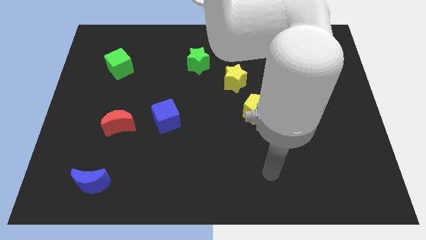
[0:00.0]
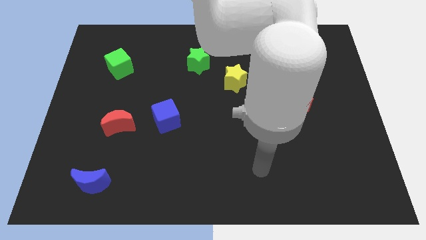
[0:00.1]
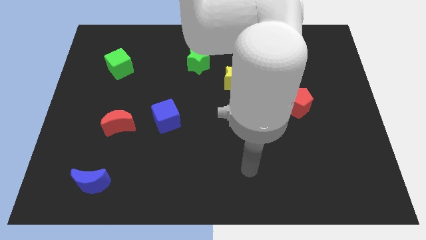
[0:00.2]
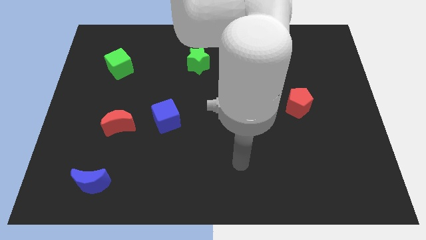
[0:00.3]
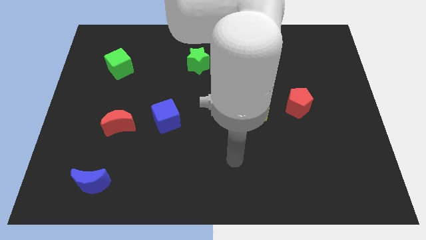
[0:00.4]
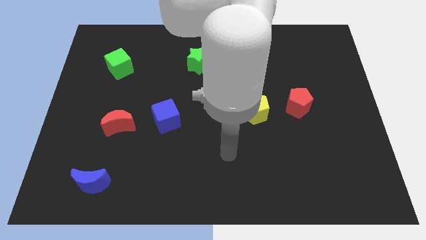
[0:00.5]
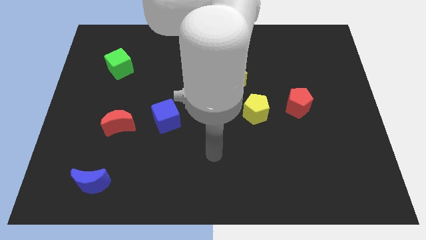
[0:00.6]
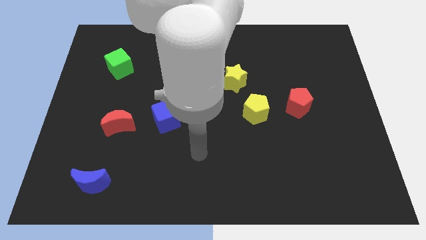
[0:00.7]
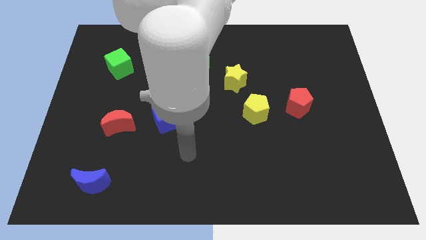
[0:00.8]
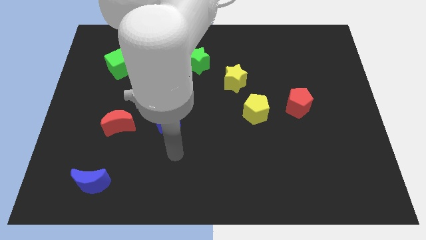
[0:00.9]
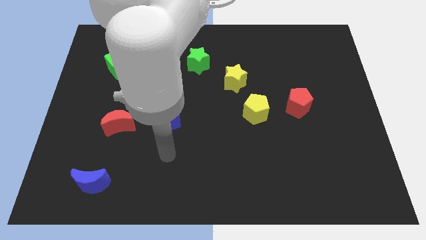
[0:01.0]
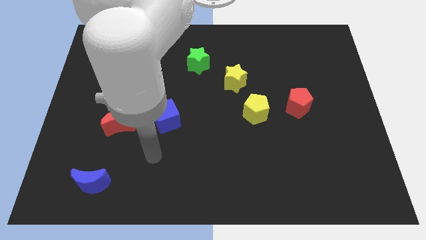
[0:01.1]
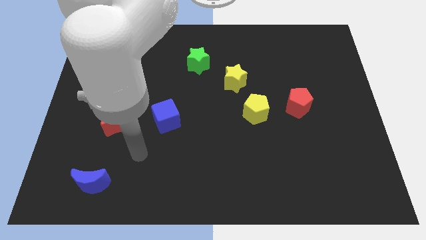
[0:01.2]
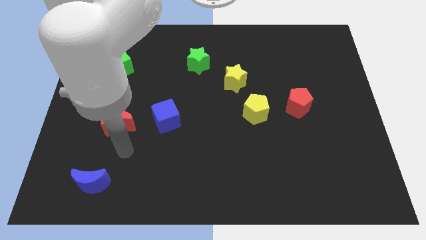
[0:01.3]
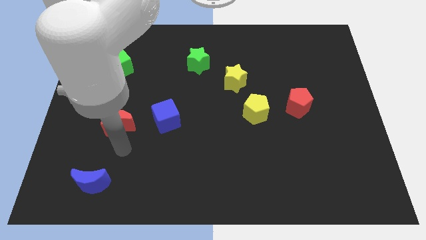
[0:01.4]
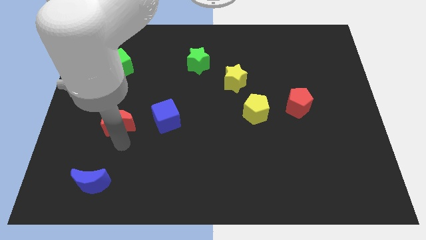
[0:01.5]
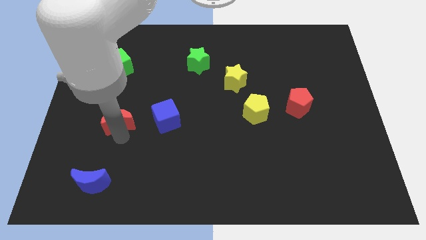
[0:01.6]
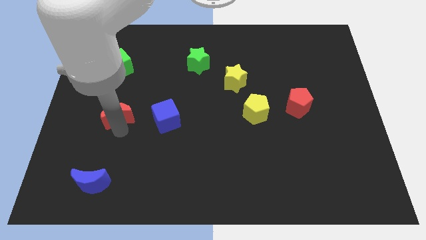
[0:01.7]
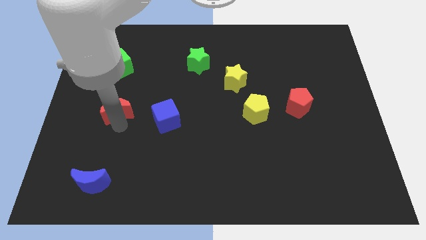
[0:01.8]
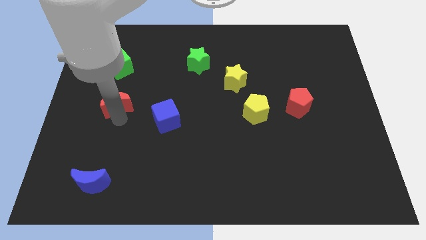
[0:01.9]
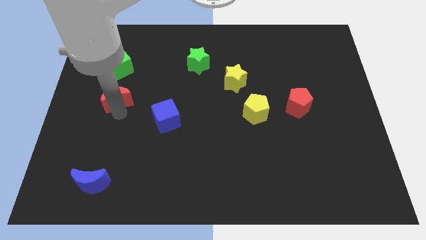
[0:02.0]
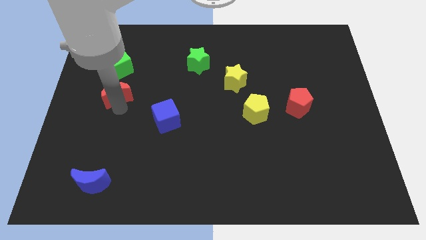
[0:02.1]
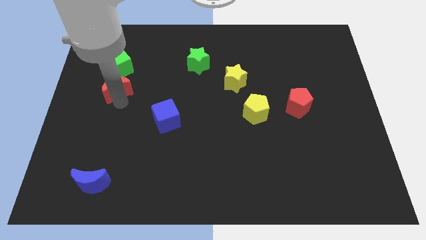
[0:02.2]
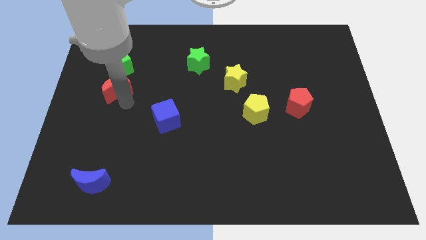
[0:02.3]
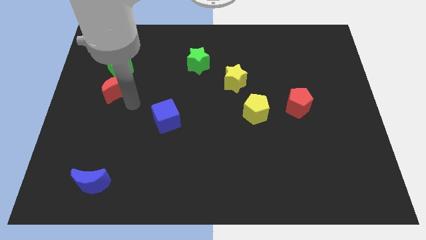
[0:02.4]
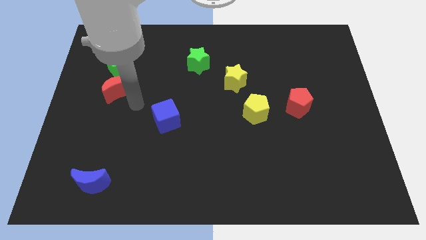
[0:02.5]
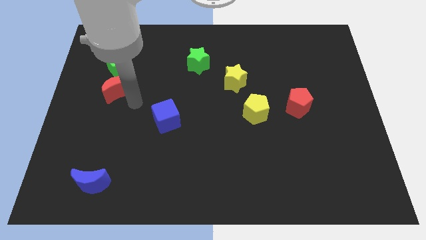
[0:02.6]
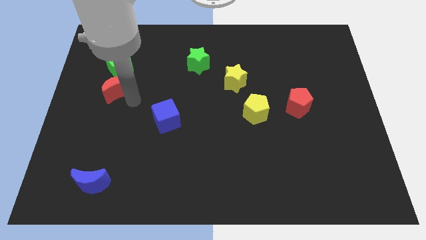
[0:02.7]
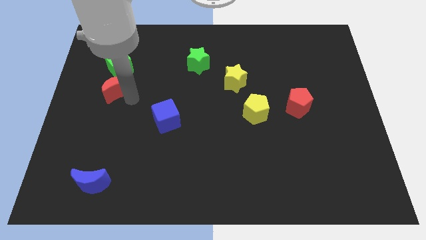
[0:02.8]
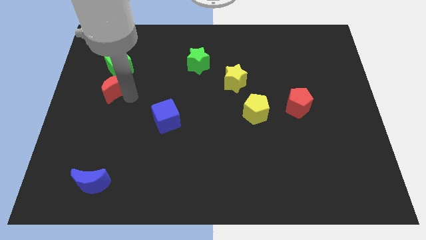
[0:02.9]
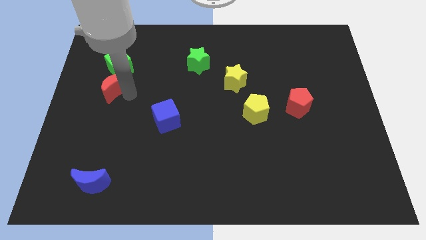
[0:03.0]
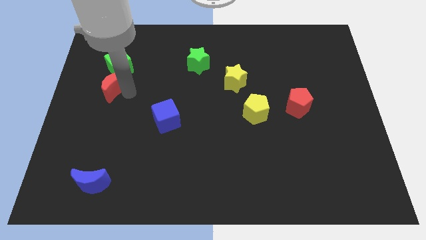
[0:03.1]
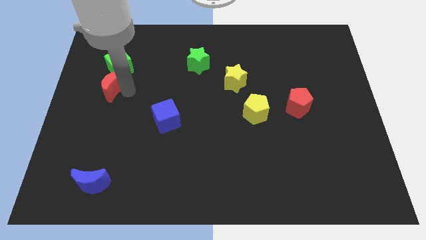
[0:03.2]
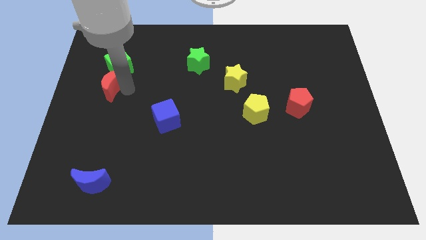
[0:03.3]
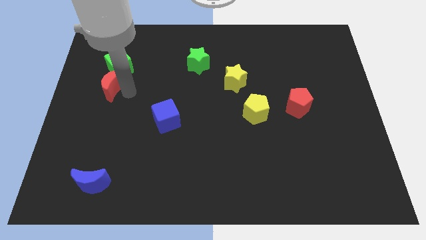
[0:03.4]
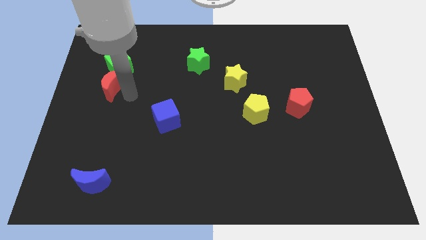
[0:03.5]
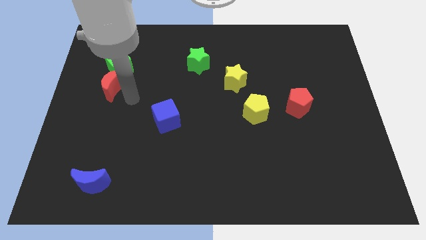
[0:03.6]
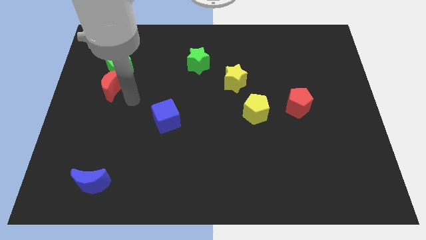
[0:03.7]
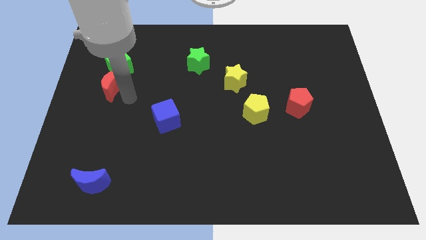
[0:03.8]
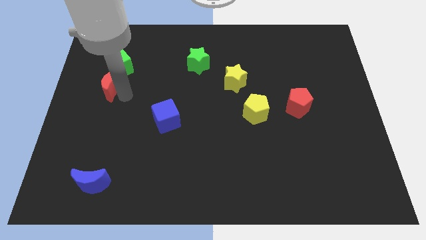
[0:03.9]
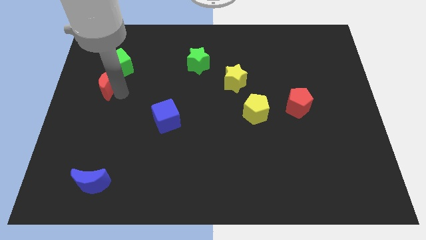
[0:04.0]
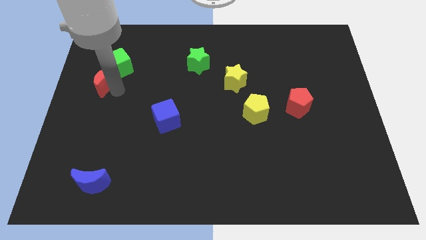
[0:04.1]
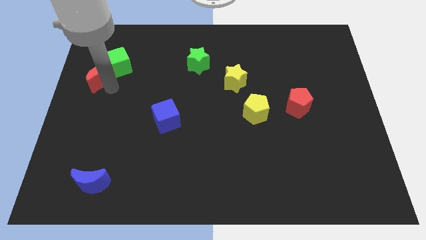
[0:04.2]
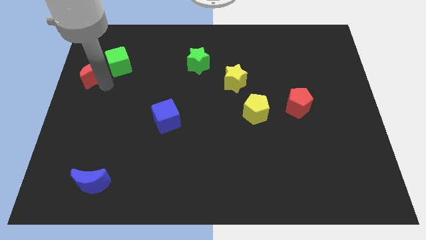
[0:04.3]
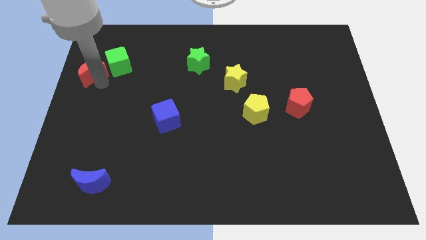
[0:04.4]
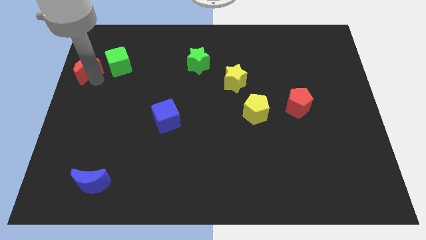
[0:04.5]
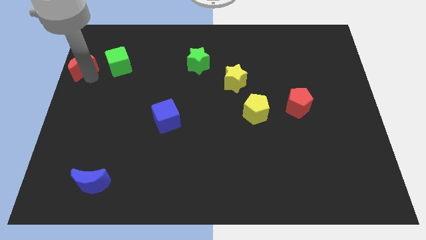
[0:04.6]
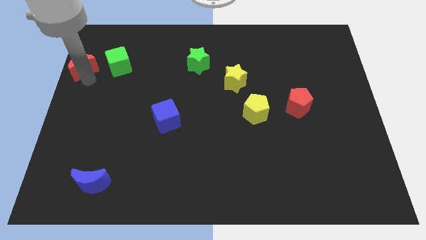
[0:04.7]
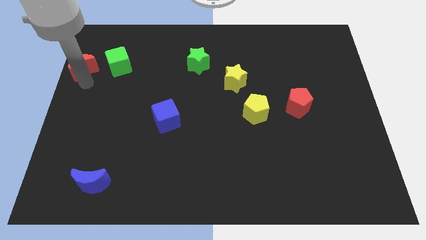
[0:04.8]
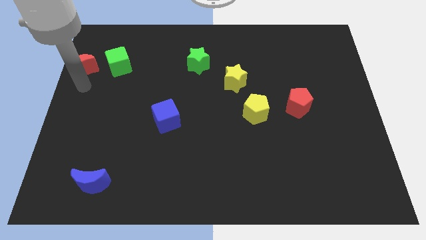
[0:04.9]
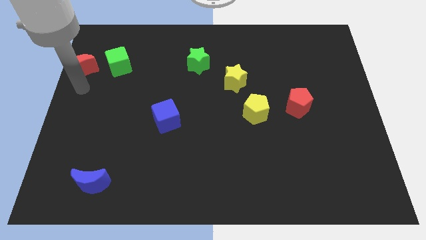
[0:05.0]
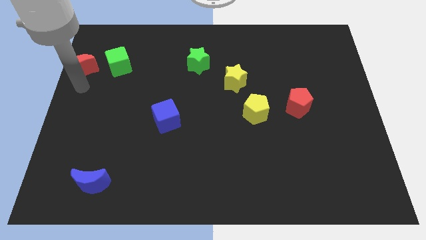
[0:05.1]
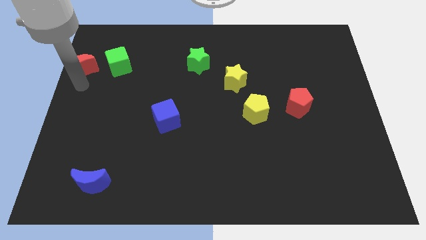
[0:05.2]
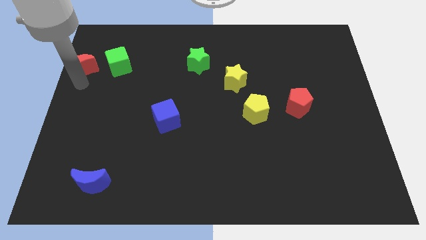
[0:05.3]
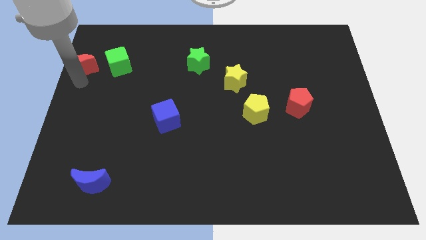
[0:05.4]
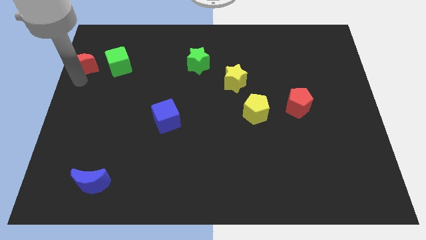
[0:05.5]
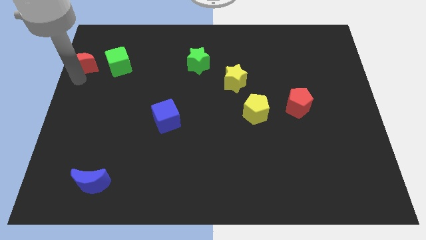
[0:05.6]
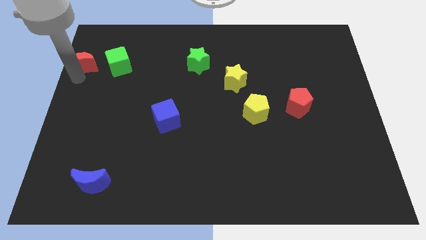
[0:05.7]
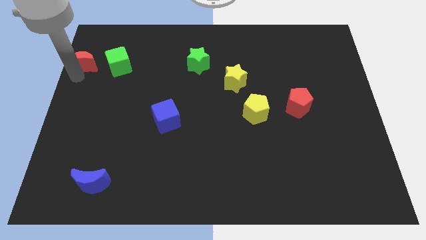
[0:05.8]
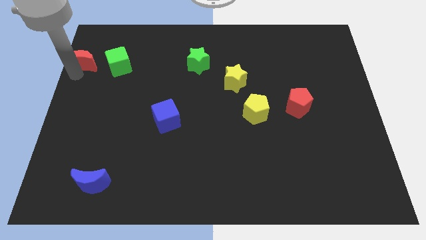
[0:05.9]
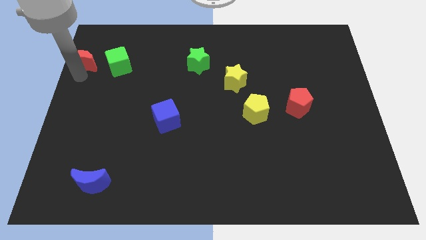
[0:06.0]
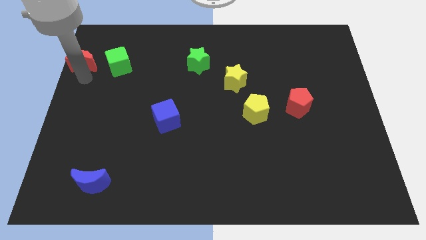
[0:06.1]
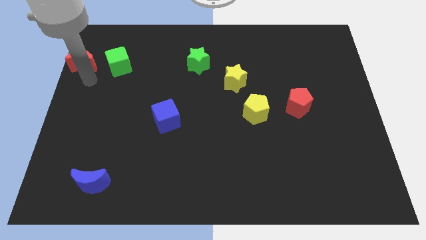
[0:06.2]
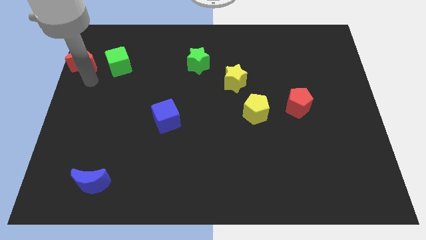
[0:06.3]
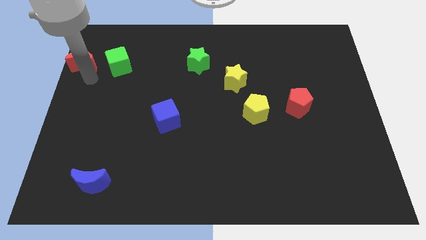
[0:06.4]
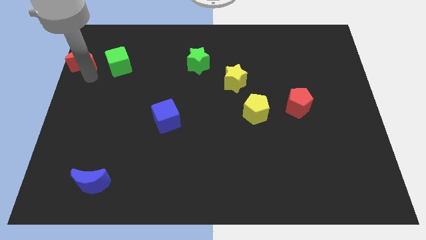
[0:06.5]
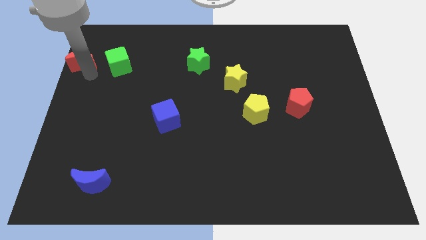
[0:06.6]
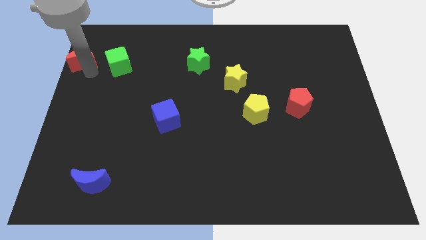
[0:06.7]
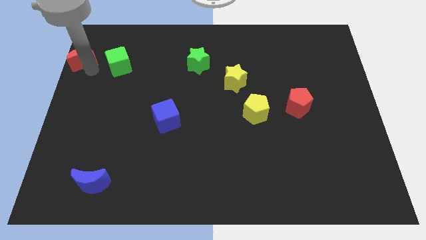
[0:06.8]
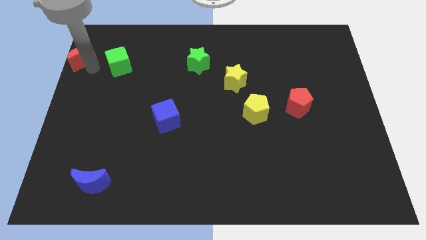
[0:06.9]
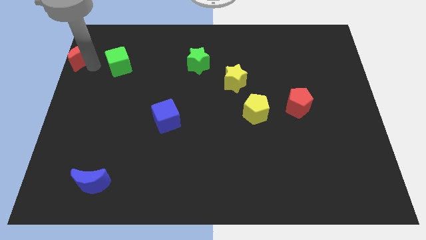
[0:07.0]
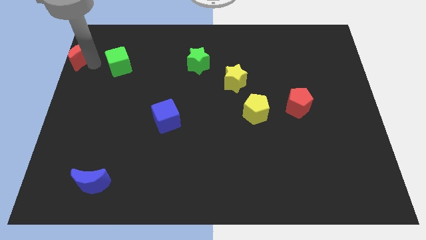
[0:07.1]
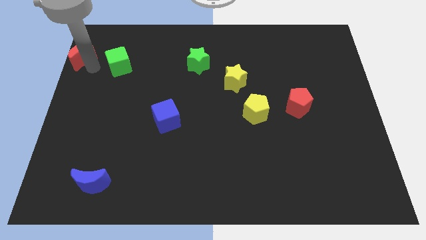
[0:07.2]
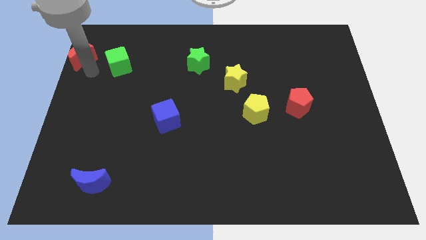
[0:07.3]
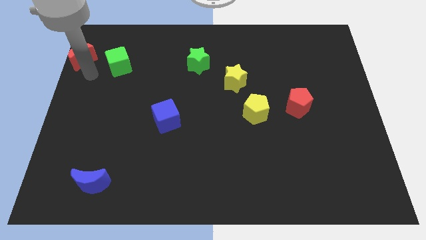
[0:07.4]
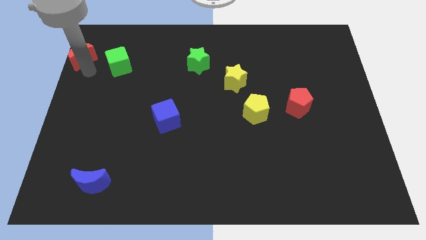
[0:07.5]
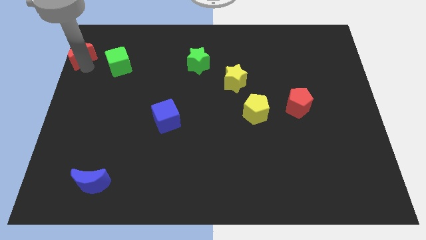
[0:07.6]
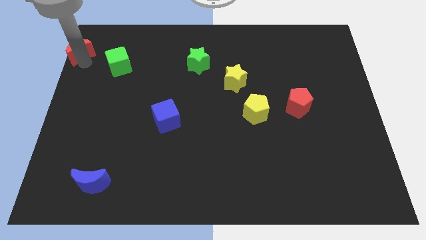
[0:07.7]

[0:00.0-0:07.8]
slide the red moon to the top left corner
